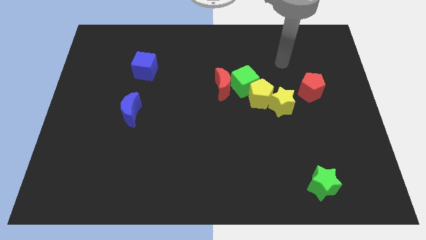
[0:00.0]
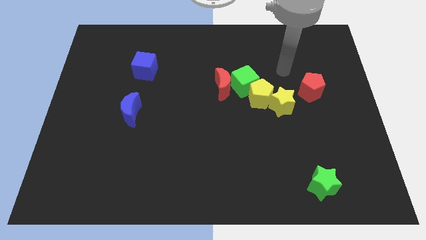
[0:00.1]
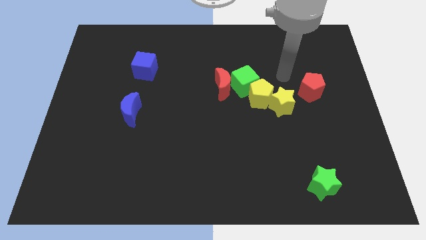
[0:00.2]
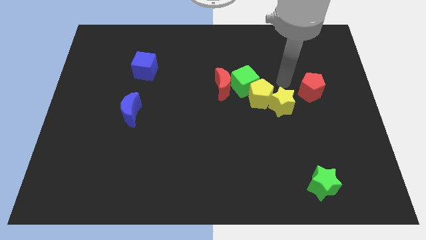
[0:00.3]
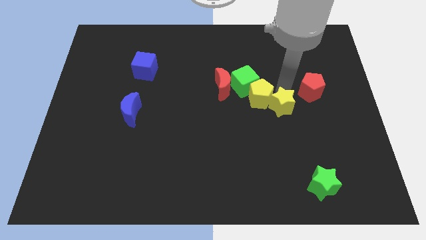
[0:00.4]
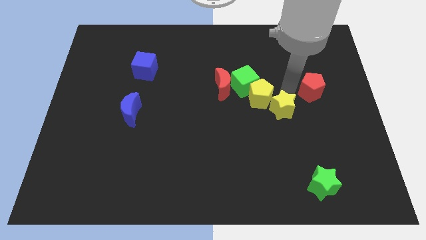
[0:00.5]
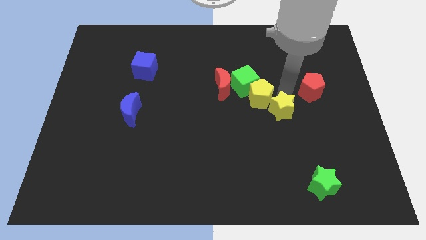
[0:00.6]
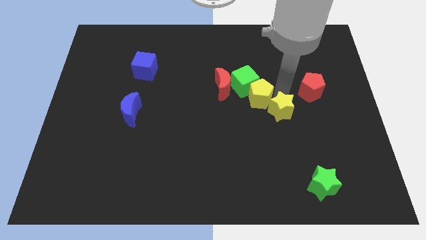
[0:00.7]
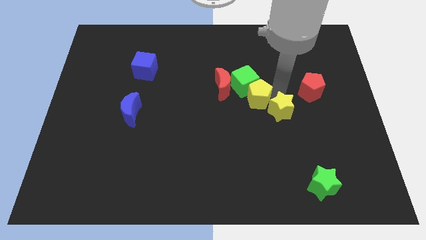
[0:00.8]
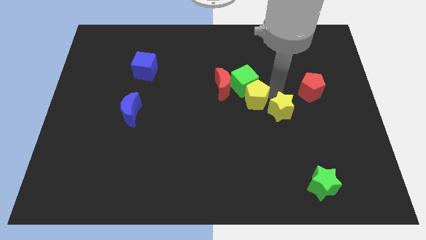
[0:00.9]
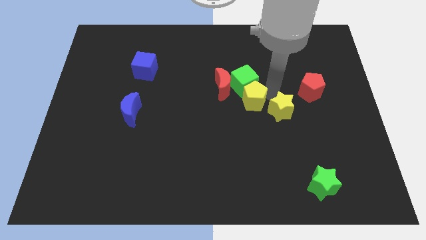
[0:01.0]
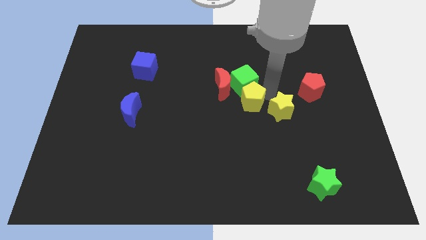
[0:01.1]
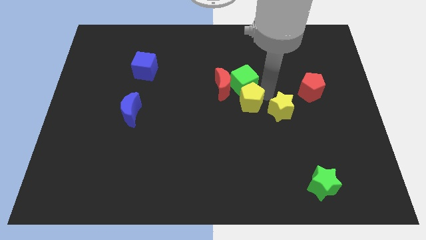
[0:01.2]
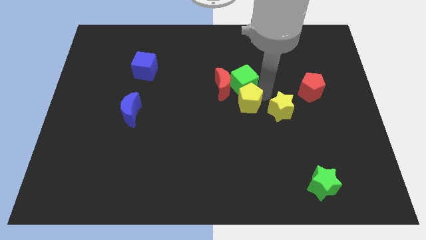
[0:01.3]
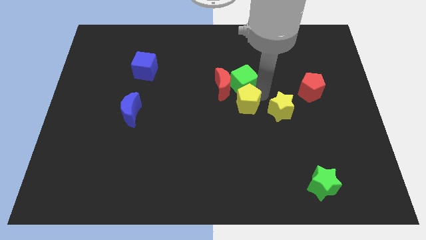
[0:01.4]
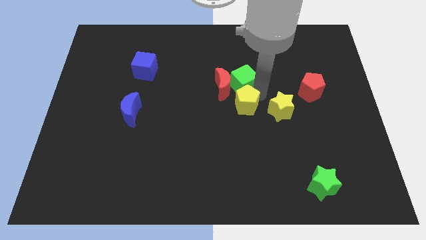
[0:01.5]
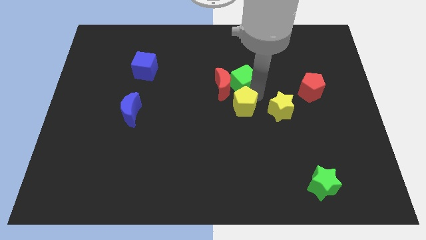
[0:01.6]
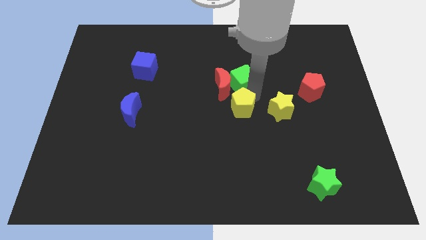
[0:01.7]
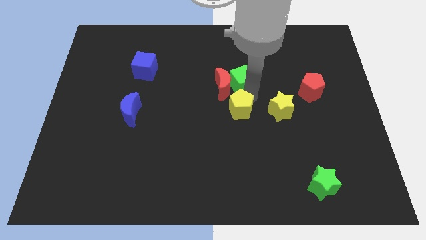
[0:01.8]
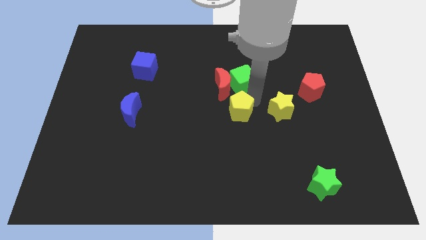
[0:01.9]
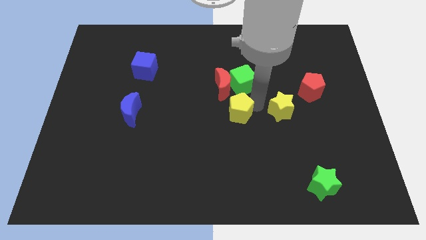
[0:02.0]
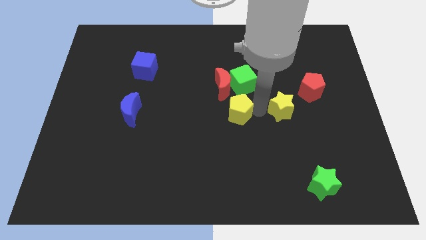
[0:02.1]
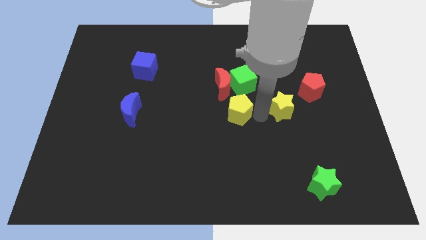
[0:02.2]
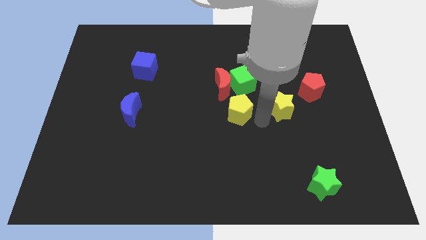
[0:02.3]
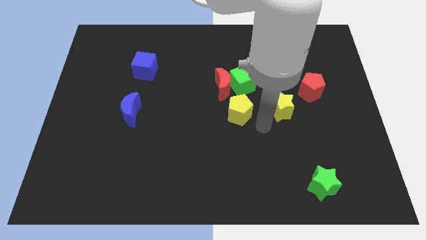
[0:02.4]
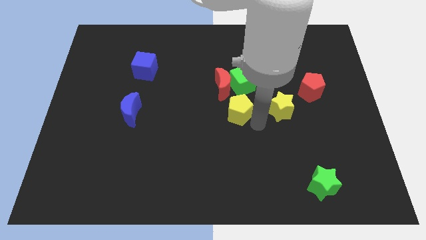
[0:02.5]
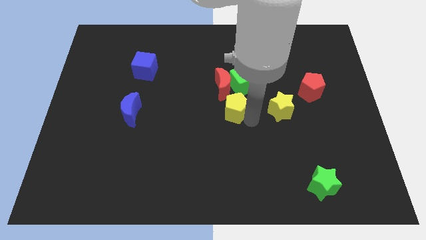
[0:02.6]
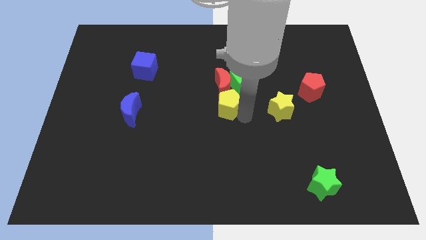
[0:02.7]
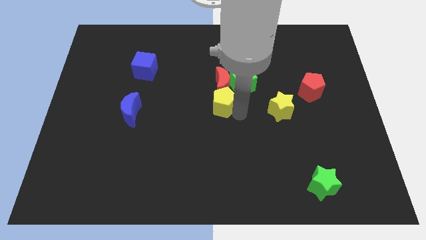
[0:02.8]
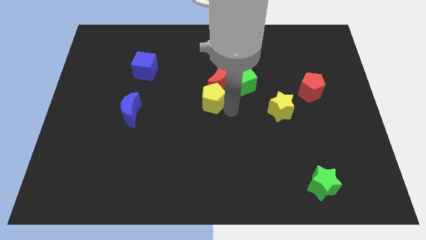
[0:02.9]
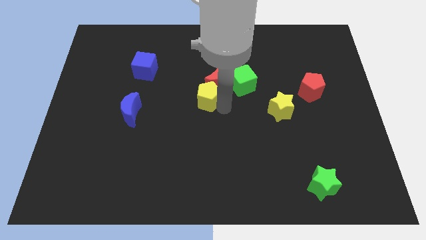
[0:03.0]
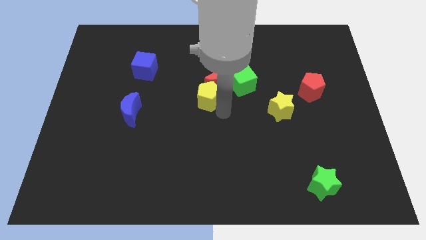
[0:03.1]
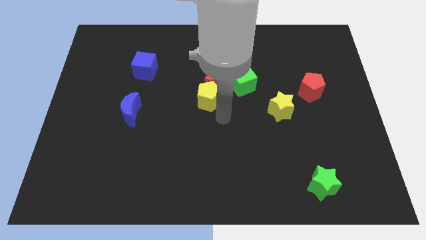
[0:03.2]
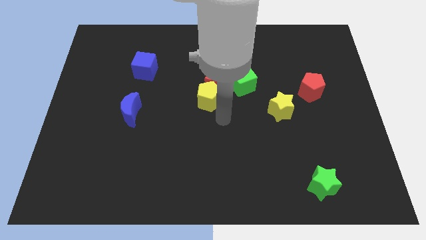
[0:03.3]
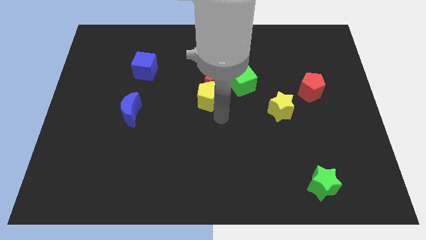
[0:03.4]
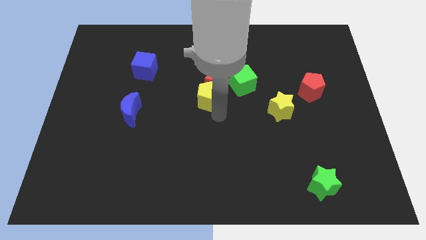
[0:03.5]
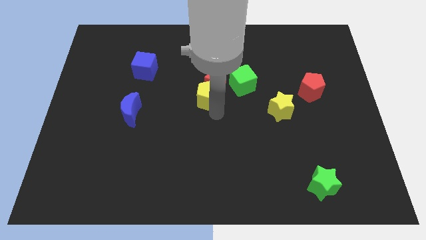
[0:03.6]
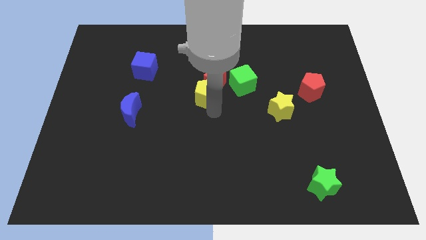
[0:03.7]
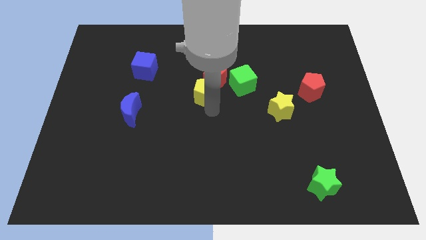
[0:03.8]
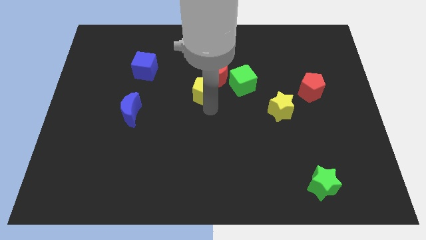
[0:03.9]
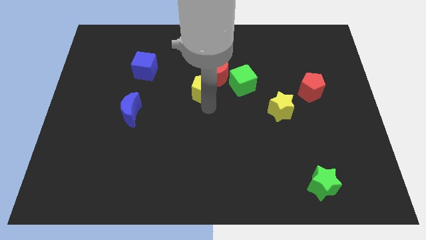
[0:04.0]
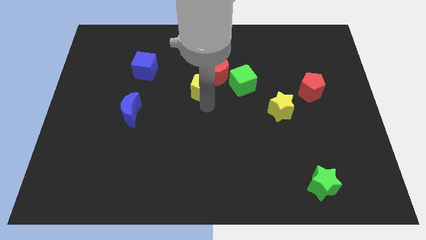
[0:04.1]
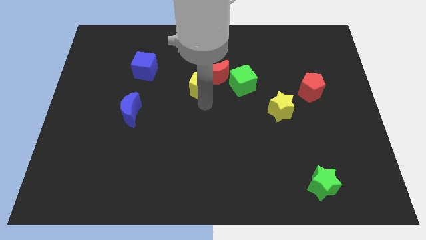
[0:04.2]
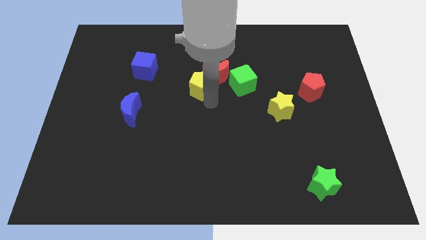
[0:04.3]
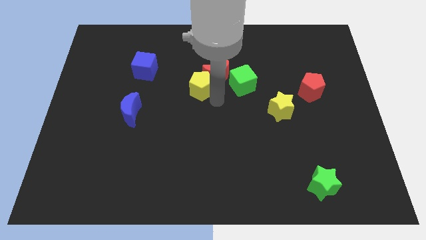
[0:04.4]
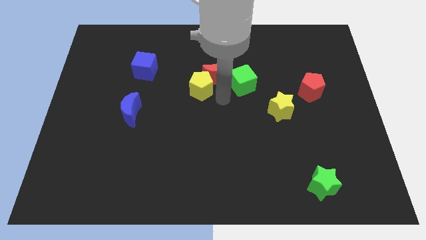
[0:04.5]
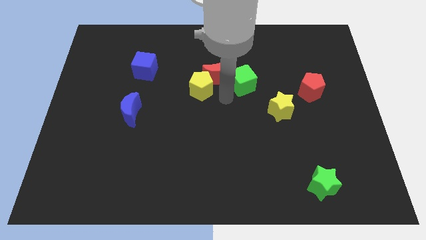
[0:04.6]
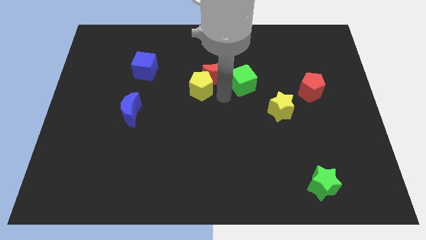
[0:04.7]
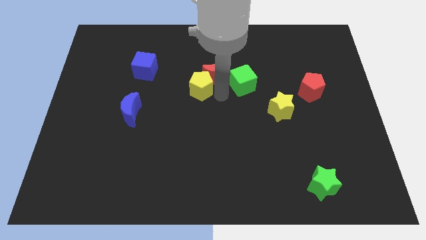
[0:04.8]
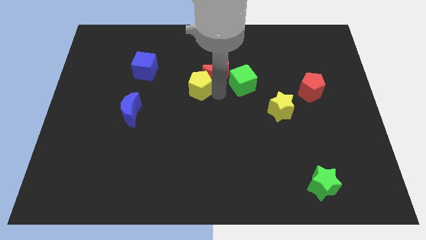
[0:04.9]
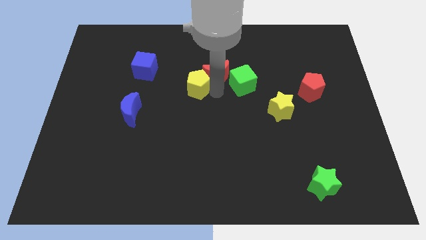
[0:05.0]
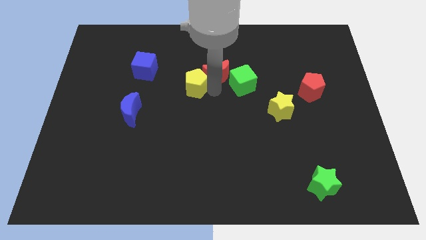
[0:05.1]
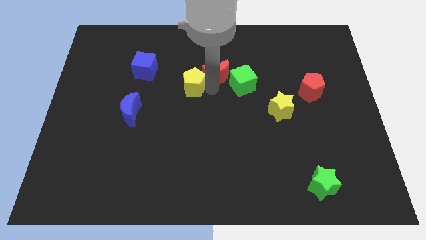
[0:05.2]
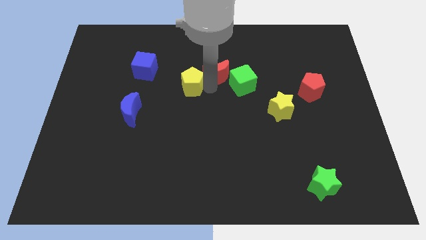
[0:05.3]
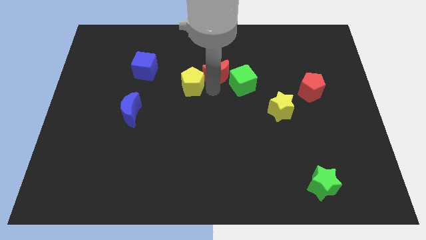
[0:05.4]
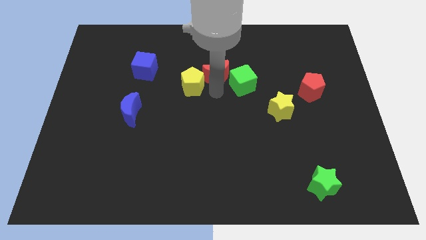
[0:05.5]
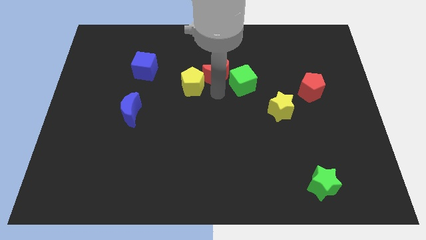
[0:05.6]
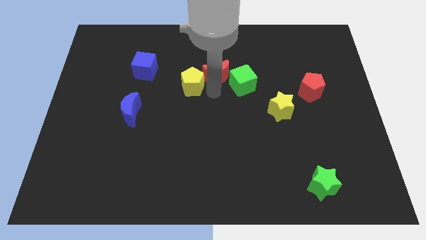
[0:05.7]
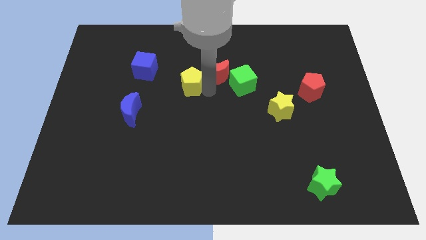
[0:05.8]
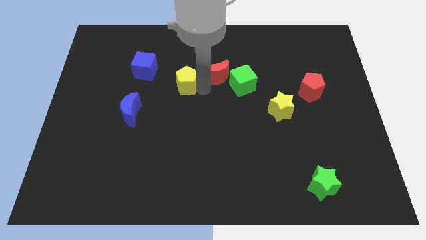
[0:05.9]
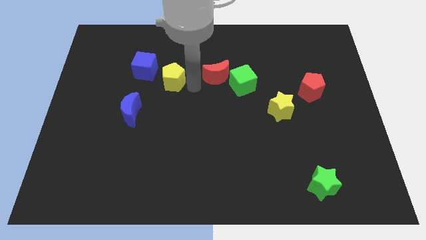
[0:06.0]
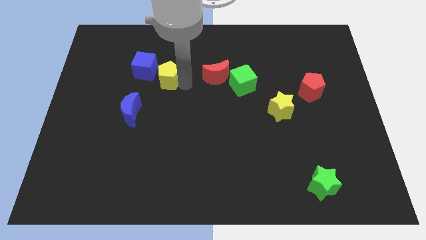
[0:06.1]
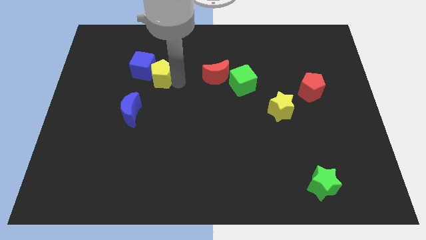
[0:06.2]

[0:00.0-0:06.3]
push the yellow pentagon towards the blue cube

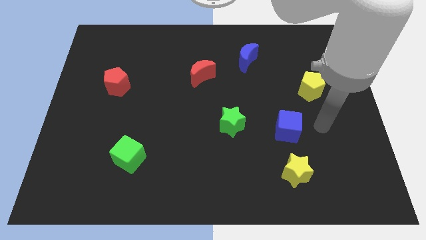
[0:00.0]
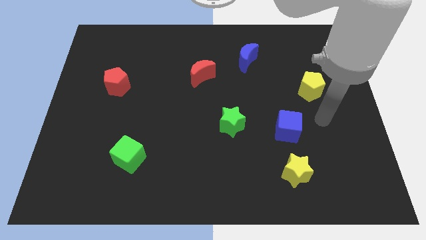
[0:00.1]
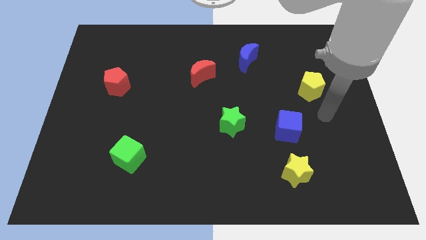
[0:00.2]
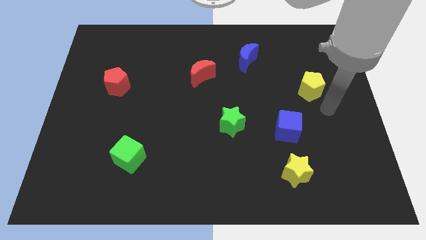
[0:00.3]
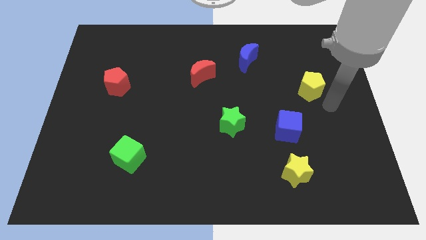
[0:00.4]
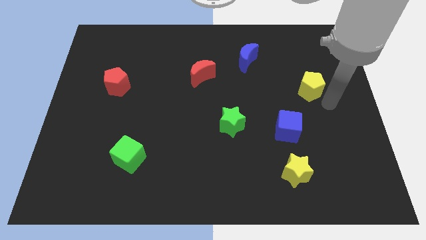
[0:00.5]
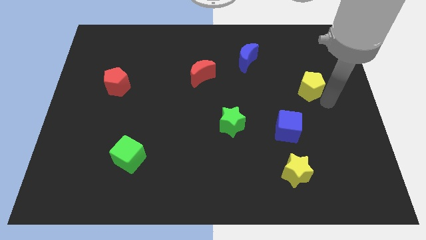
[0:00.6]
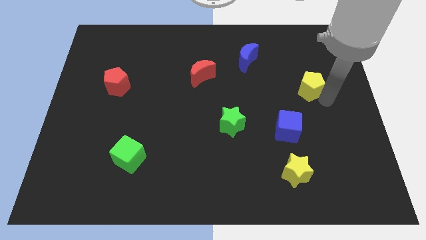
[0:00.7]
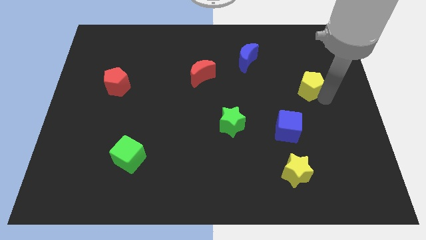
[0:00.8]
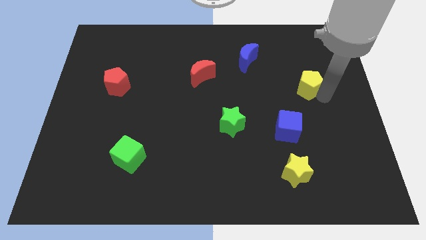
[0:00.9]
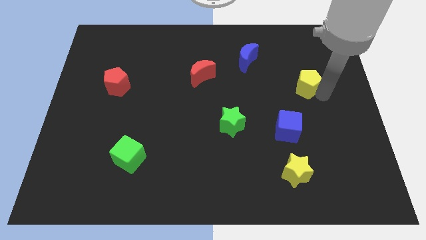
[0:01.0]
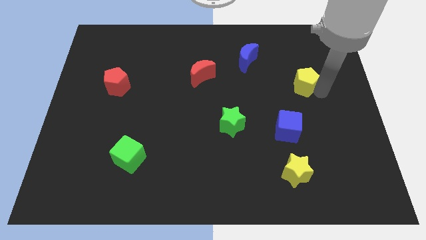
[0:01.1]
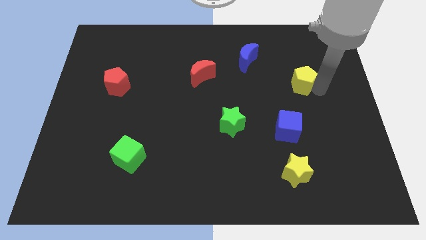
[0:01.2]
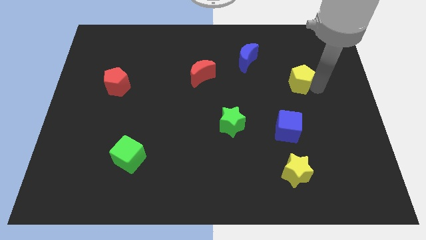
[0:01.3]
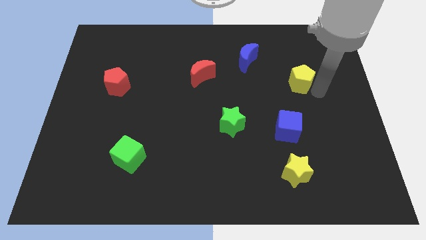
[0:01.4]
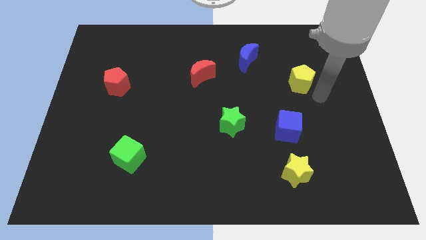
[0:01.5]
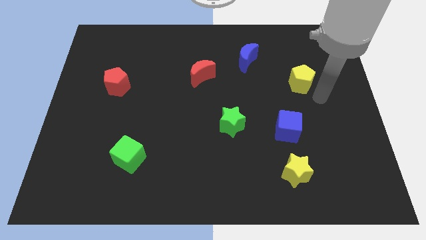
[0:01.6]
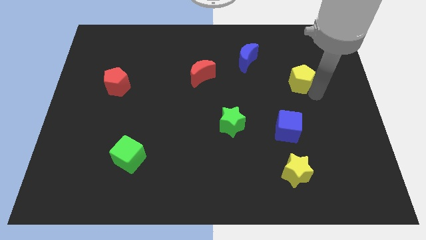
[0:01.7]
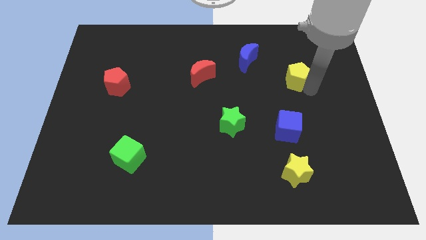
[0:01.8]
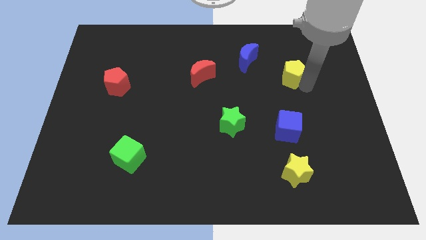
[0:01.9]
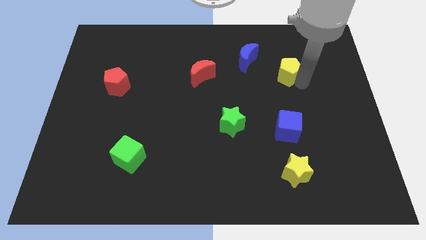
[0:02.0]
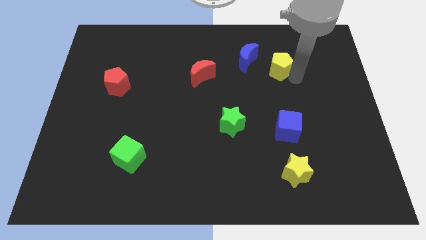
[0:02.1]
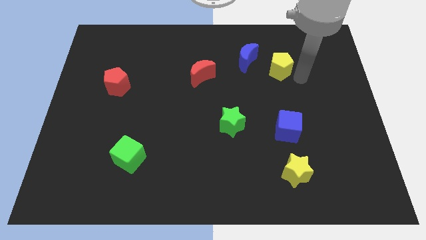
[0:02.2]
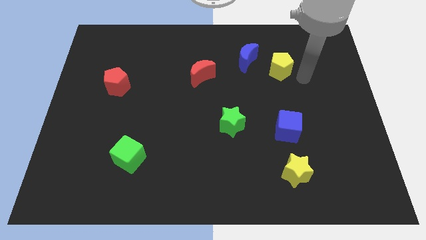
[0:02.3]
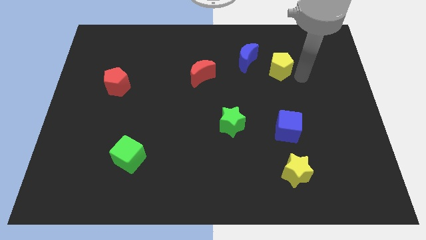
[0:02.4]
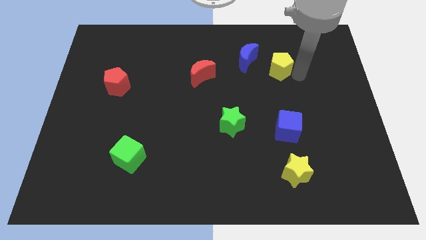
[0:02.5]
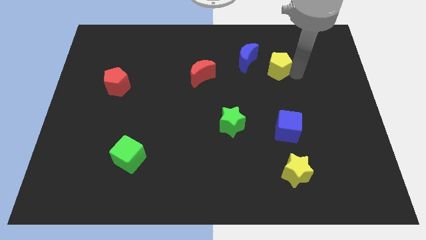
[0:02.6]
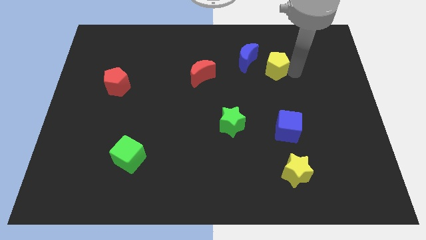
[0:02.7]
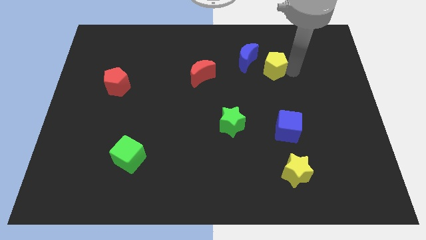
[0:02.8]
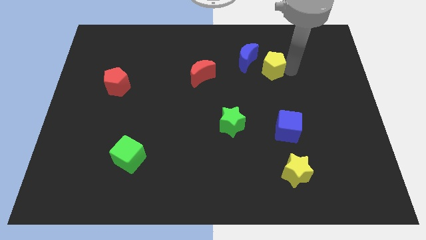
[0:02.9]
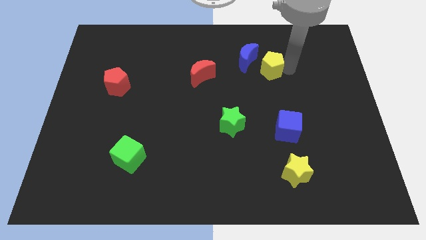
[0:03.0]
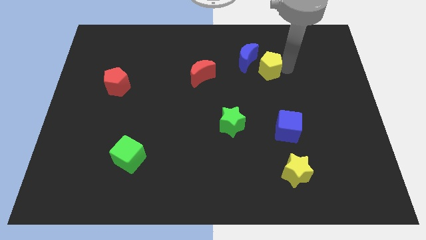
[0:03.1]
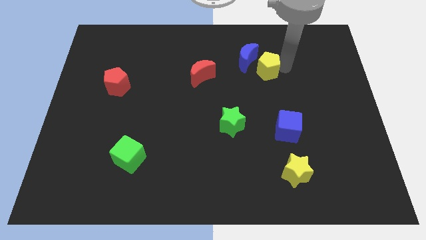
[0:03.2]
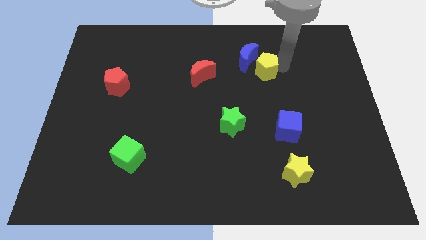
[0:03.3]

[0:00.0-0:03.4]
put the yellow pentagon to the blue moon
